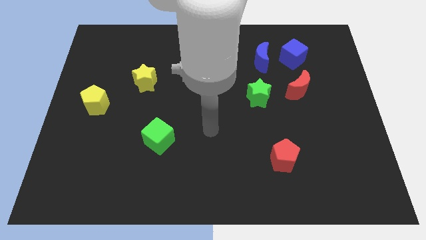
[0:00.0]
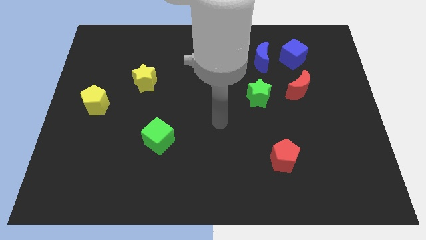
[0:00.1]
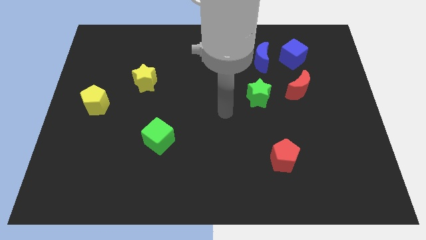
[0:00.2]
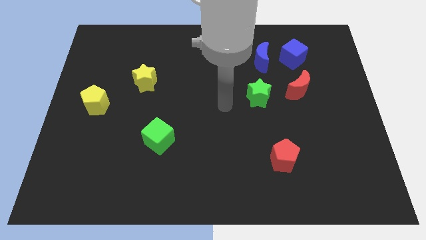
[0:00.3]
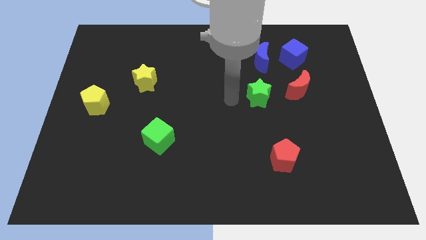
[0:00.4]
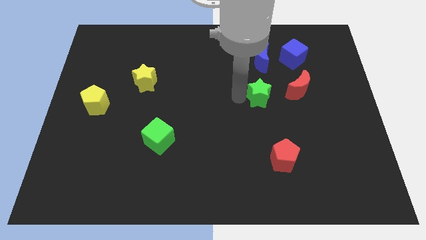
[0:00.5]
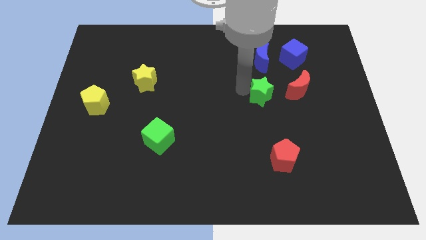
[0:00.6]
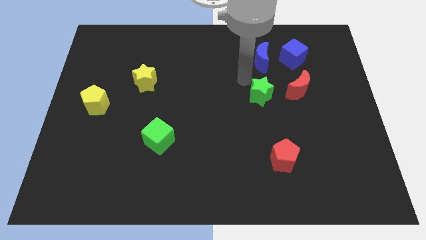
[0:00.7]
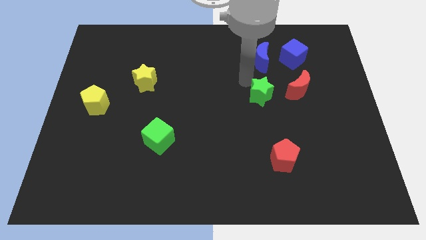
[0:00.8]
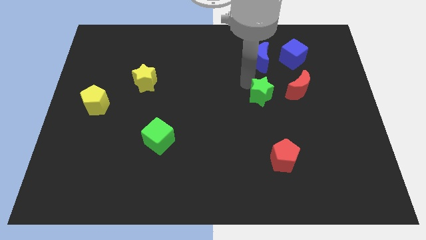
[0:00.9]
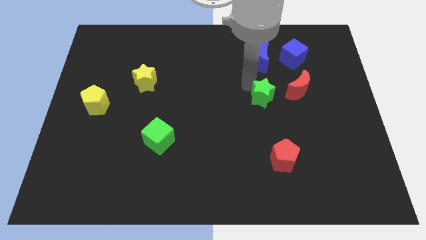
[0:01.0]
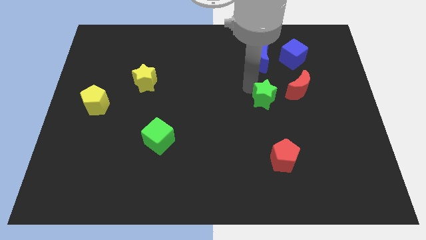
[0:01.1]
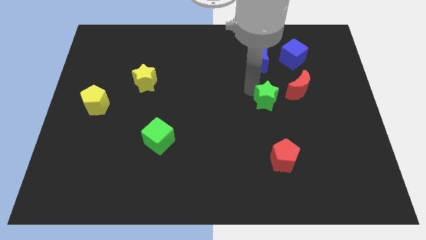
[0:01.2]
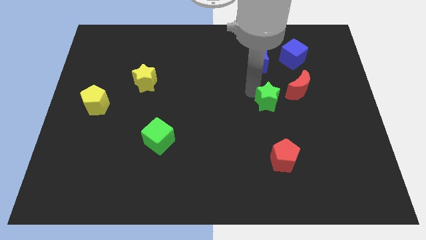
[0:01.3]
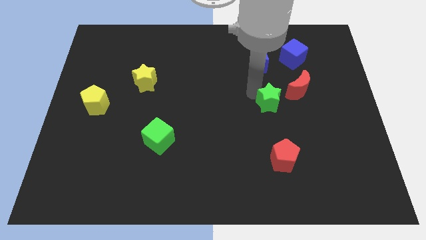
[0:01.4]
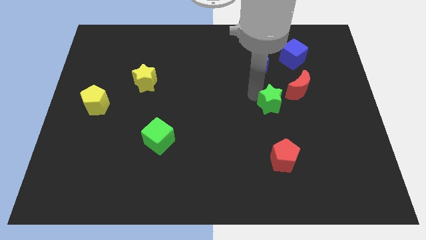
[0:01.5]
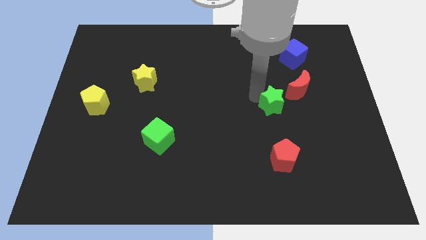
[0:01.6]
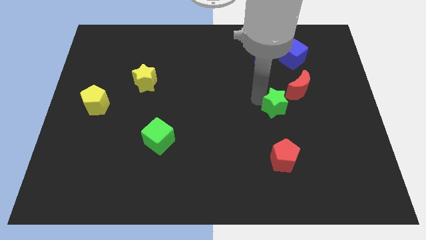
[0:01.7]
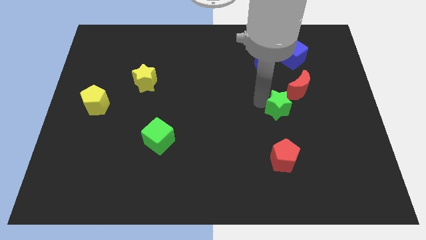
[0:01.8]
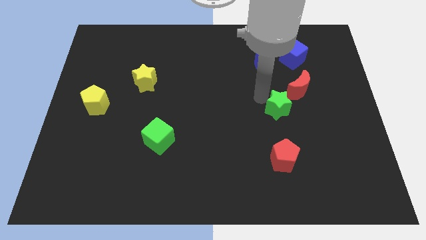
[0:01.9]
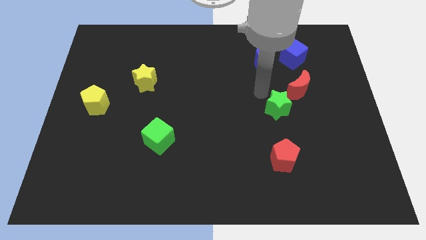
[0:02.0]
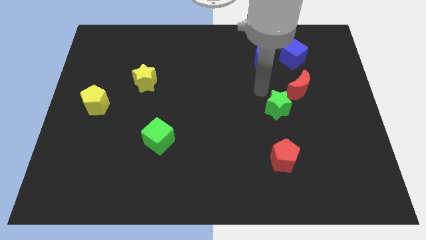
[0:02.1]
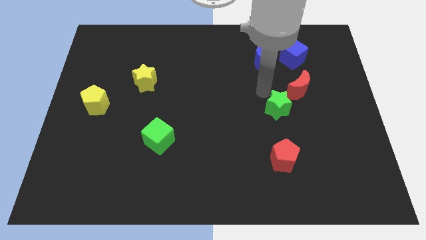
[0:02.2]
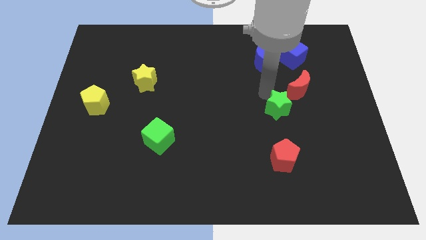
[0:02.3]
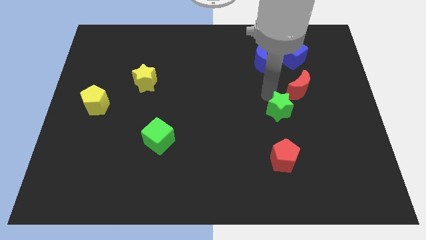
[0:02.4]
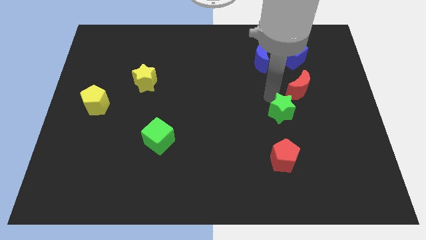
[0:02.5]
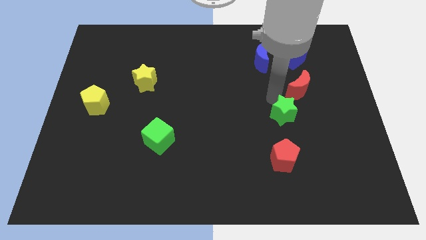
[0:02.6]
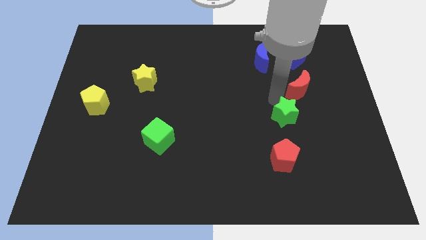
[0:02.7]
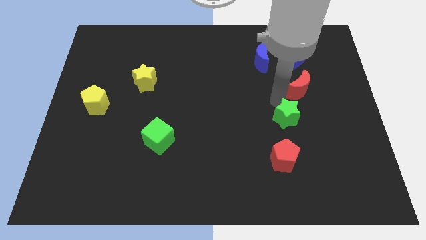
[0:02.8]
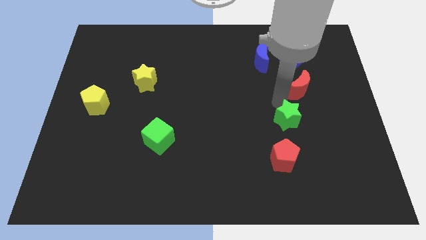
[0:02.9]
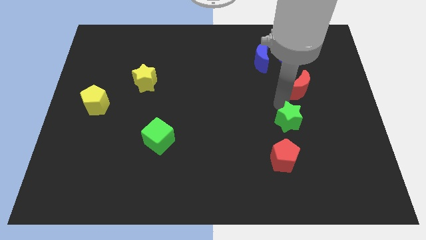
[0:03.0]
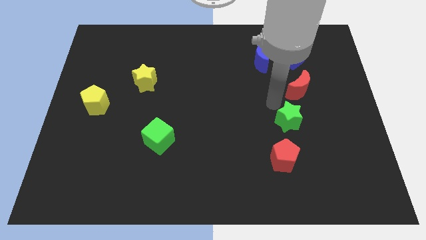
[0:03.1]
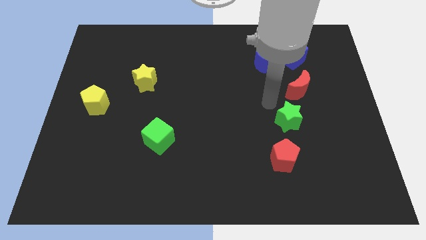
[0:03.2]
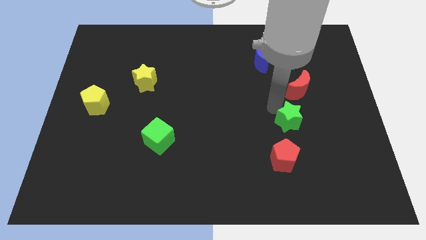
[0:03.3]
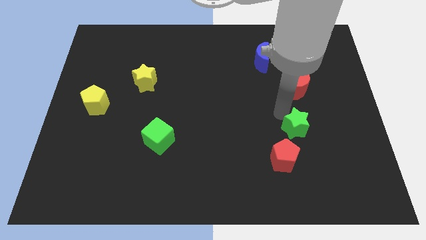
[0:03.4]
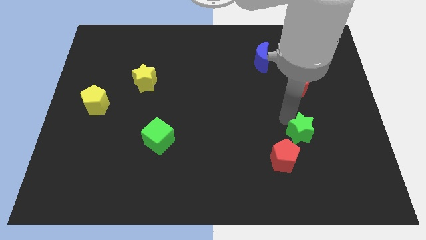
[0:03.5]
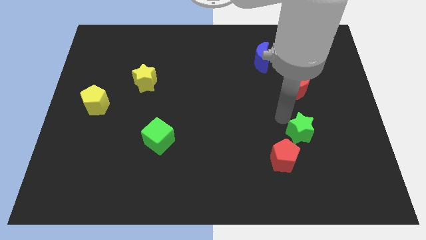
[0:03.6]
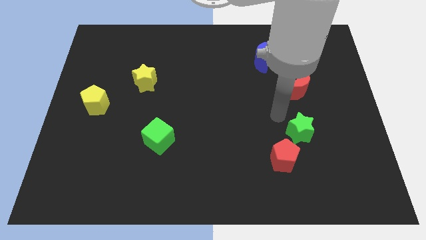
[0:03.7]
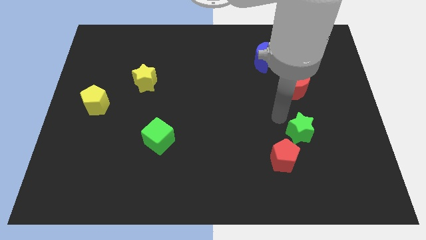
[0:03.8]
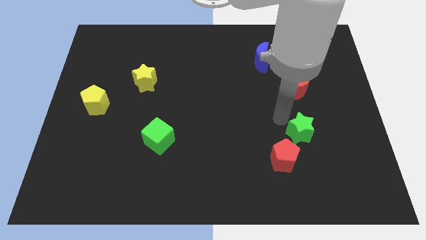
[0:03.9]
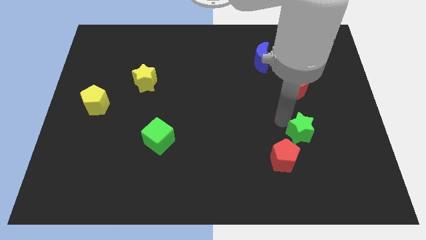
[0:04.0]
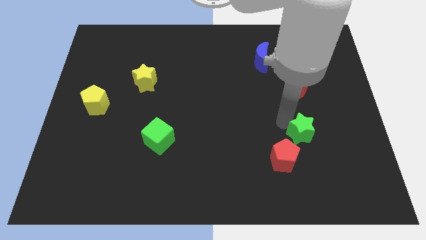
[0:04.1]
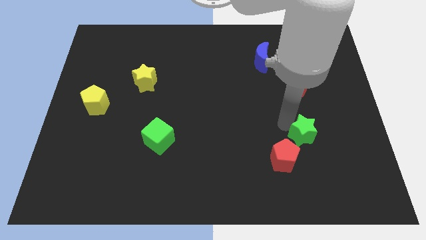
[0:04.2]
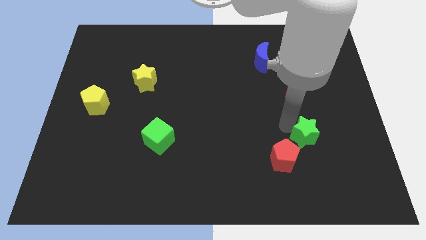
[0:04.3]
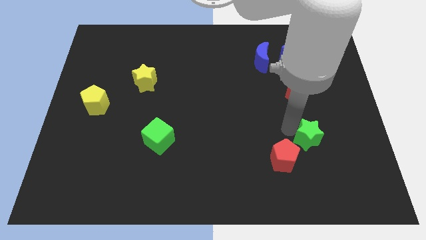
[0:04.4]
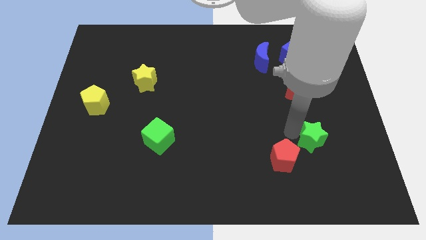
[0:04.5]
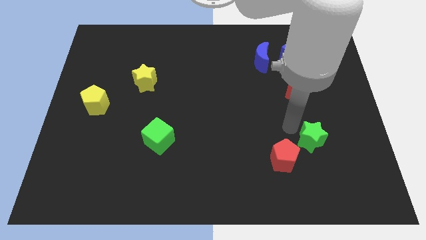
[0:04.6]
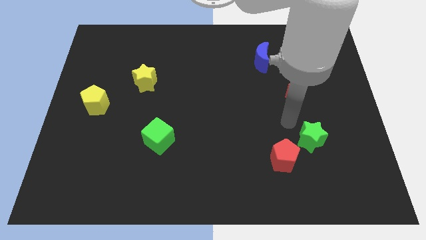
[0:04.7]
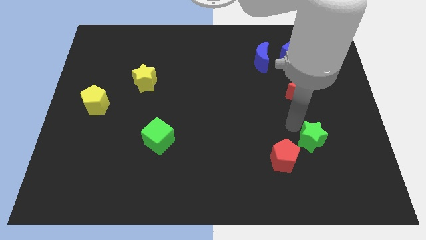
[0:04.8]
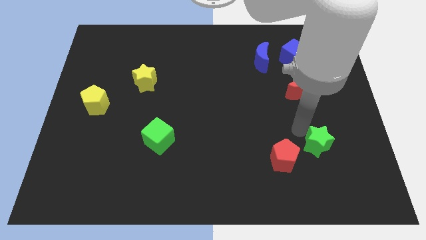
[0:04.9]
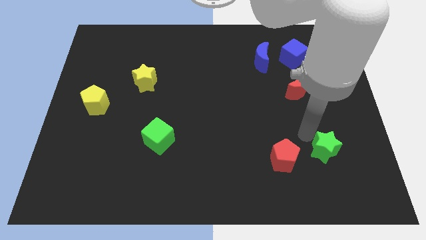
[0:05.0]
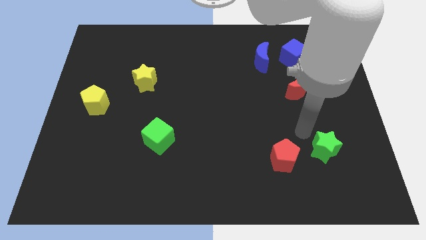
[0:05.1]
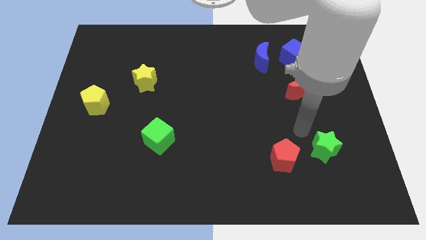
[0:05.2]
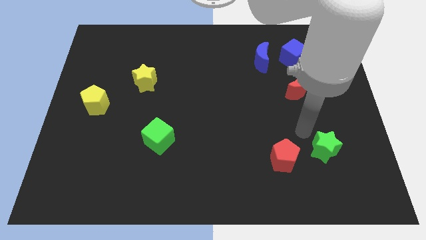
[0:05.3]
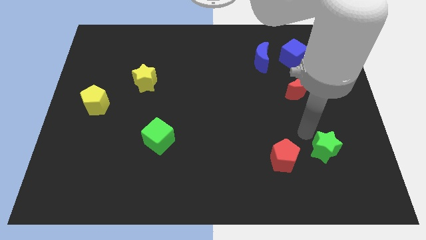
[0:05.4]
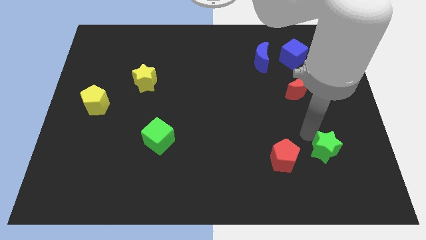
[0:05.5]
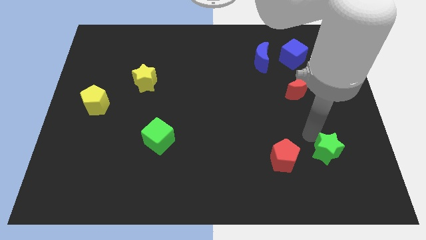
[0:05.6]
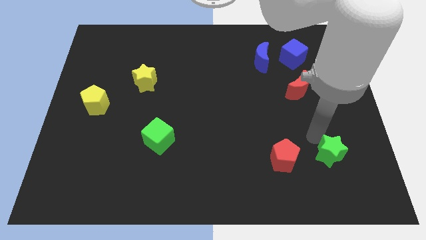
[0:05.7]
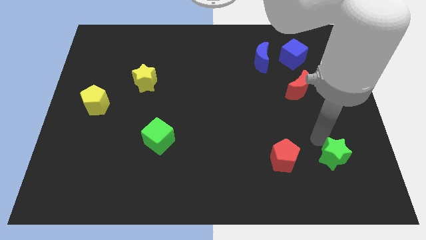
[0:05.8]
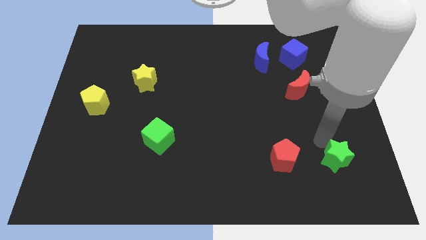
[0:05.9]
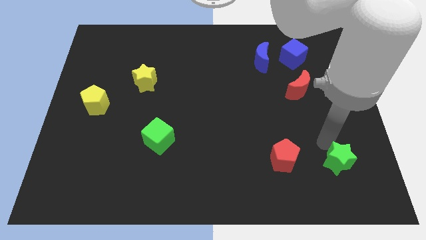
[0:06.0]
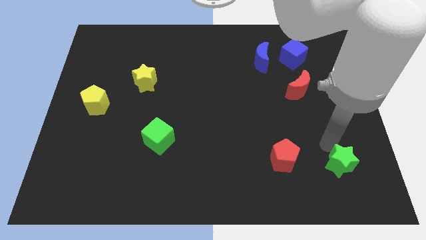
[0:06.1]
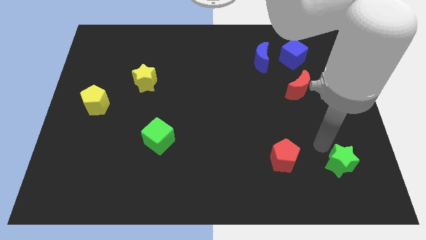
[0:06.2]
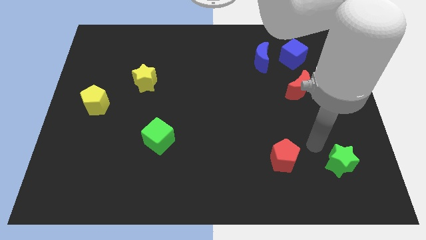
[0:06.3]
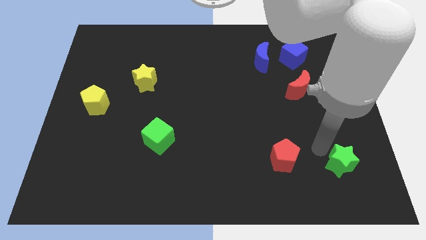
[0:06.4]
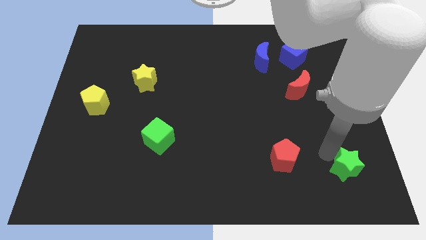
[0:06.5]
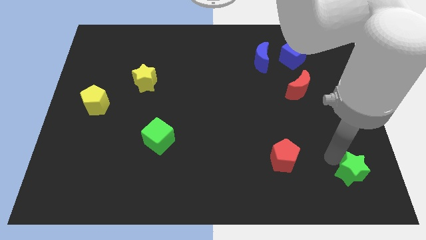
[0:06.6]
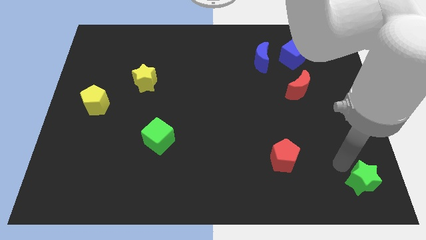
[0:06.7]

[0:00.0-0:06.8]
move the green star to the bottom right
